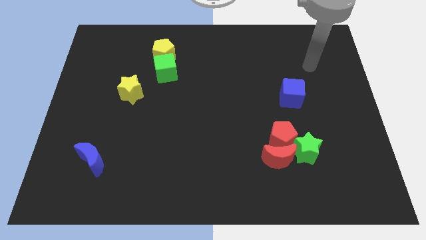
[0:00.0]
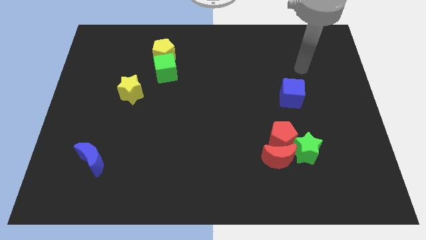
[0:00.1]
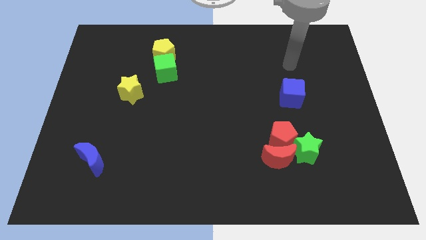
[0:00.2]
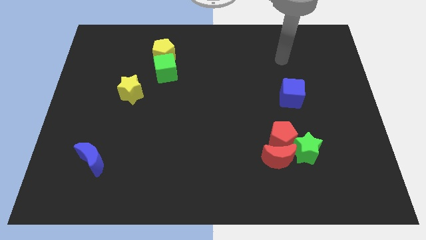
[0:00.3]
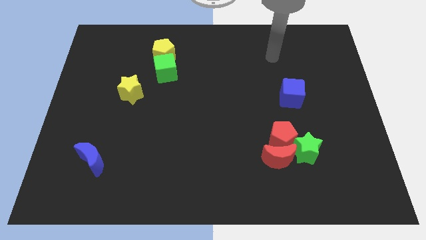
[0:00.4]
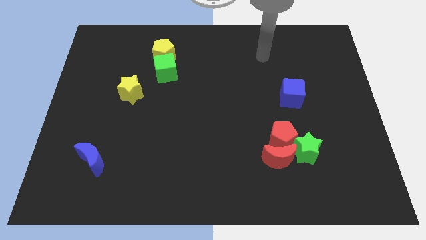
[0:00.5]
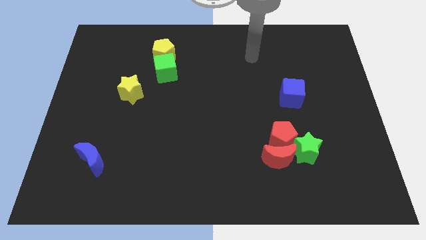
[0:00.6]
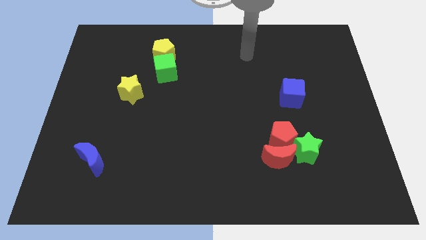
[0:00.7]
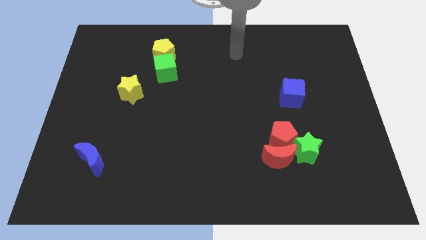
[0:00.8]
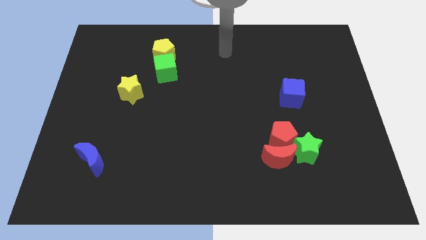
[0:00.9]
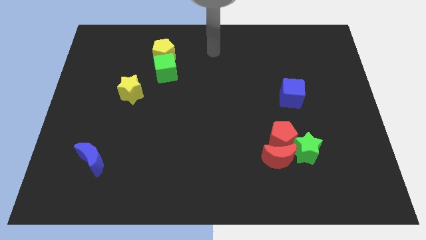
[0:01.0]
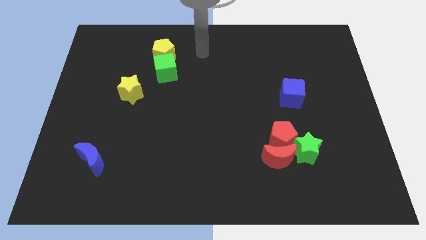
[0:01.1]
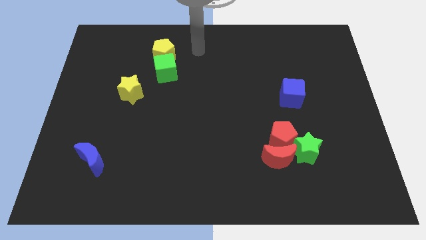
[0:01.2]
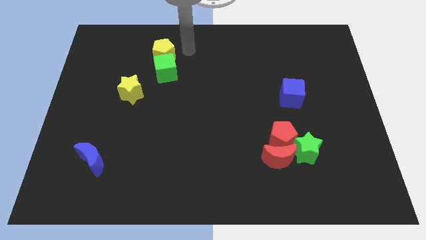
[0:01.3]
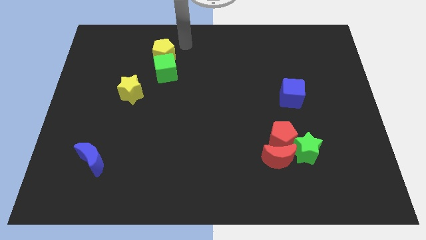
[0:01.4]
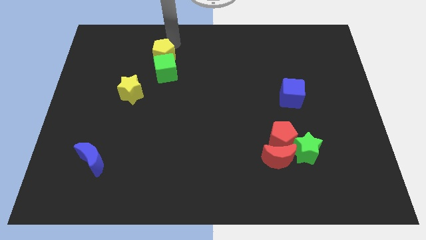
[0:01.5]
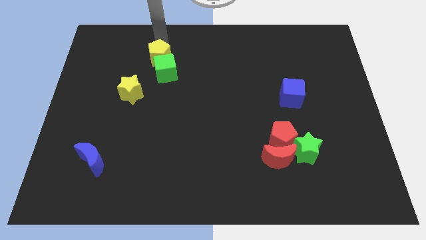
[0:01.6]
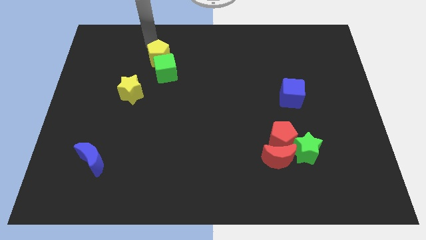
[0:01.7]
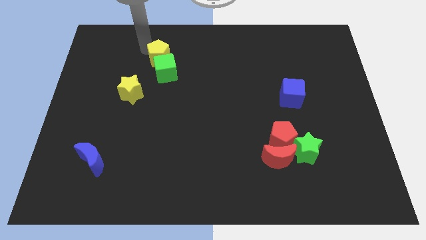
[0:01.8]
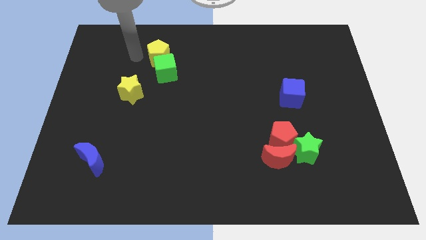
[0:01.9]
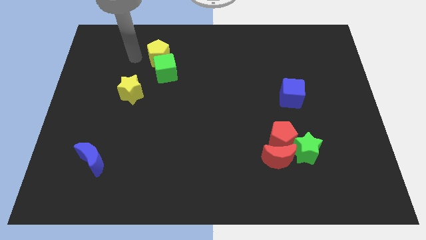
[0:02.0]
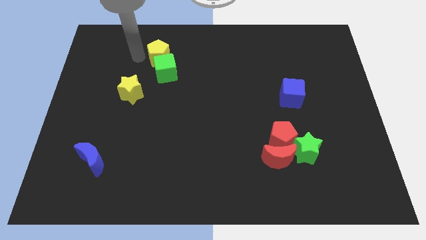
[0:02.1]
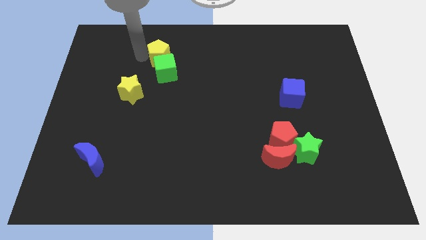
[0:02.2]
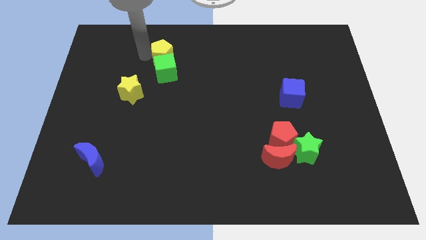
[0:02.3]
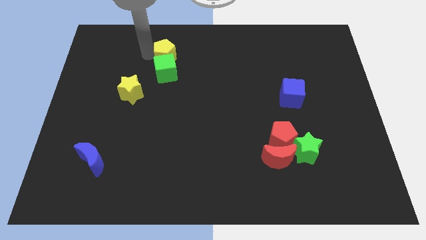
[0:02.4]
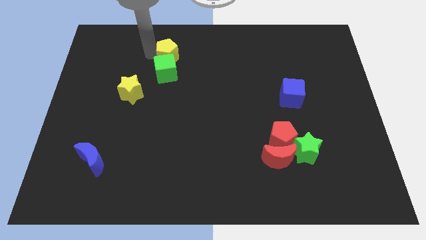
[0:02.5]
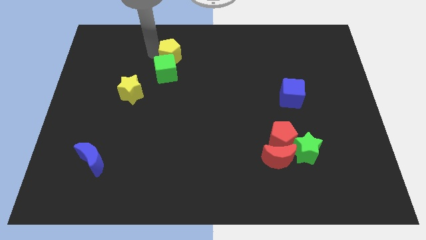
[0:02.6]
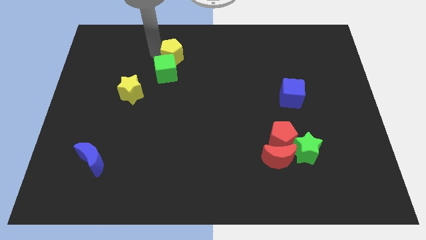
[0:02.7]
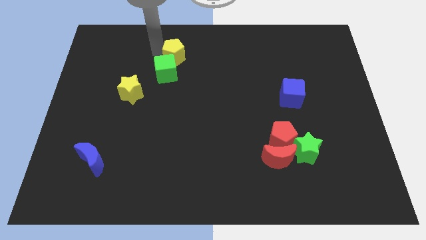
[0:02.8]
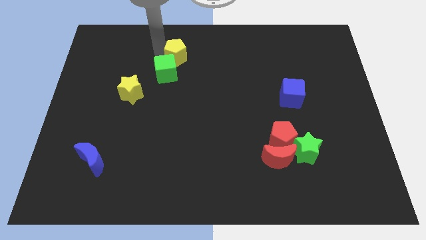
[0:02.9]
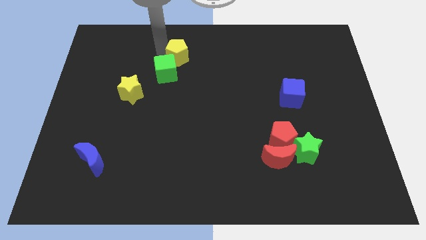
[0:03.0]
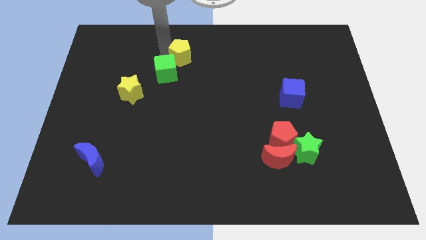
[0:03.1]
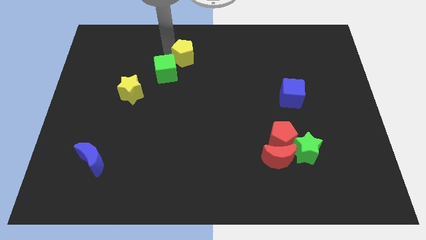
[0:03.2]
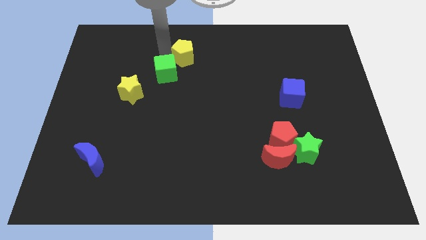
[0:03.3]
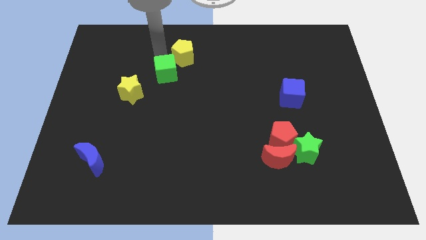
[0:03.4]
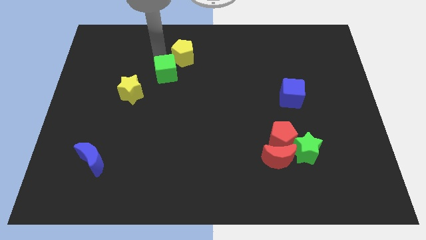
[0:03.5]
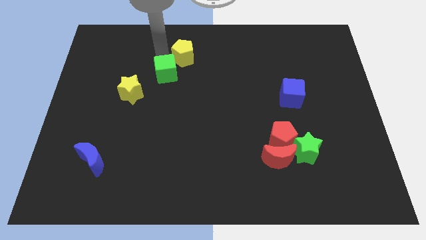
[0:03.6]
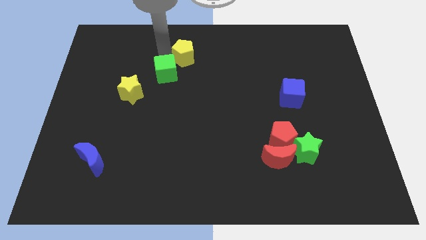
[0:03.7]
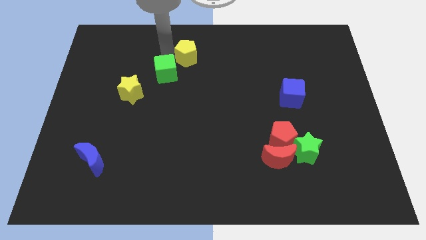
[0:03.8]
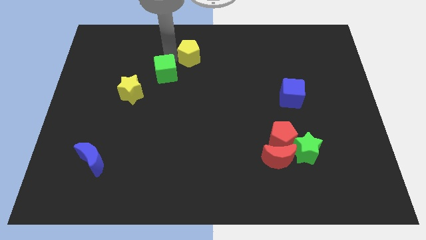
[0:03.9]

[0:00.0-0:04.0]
move the yellow pentagon right a little bit

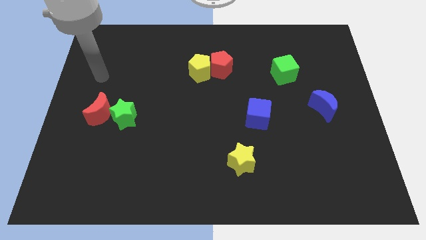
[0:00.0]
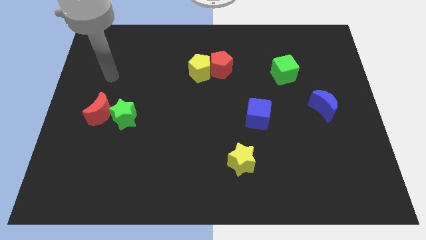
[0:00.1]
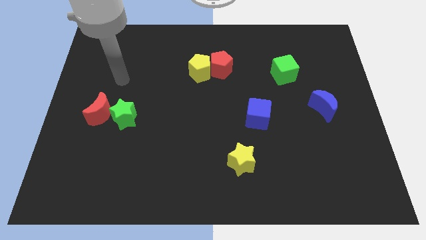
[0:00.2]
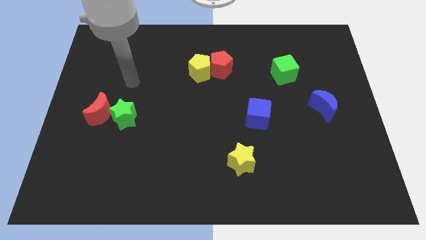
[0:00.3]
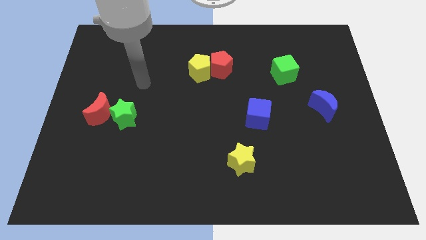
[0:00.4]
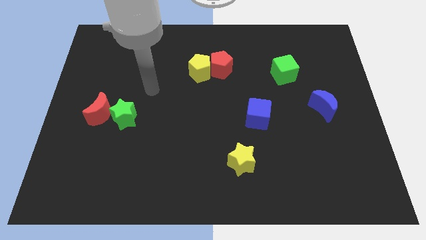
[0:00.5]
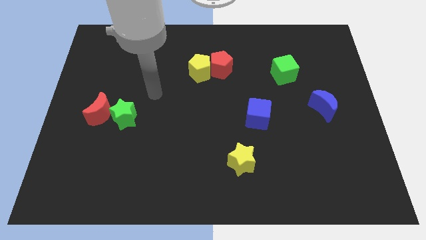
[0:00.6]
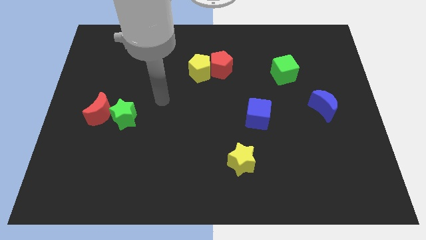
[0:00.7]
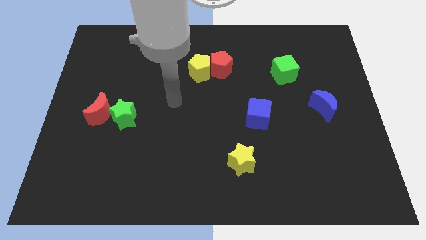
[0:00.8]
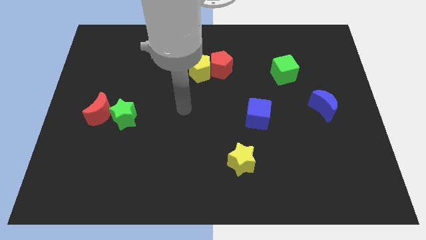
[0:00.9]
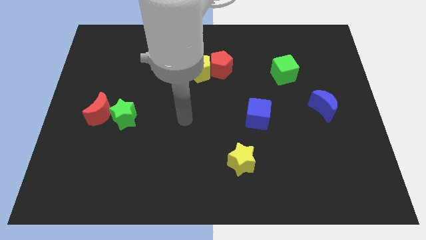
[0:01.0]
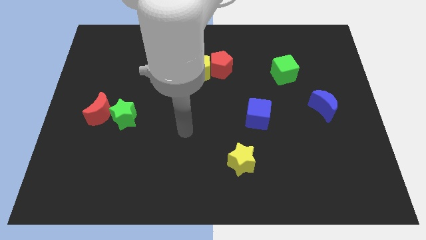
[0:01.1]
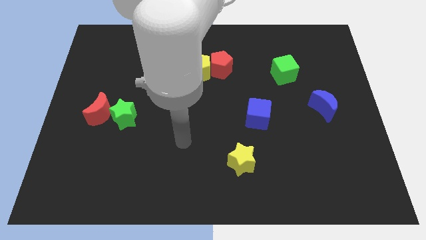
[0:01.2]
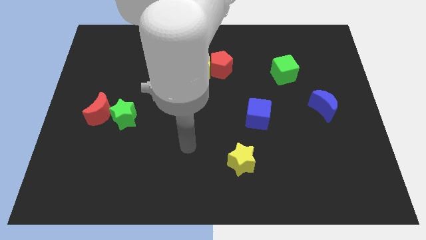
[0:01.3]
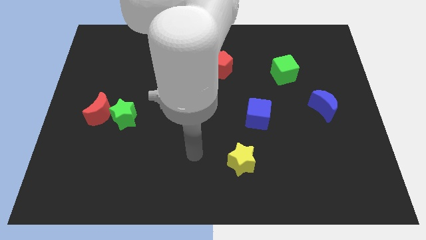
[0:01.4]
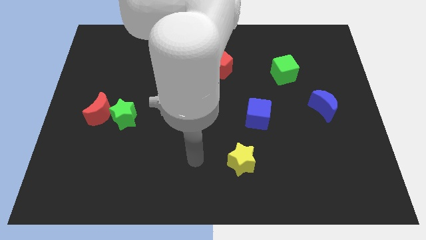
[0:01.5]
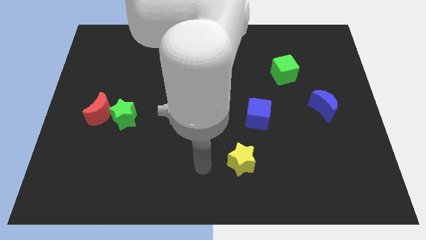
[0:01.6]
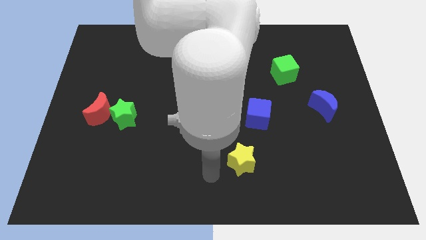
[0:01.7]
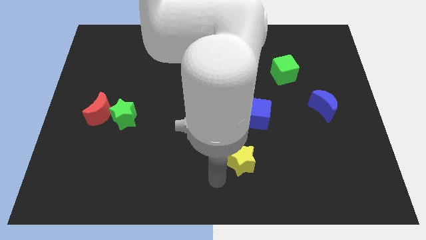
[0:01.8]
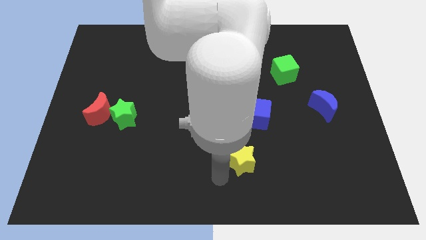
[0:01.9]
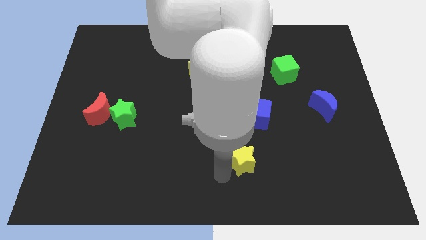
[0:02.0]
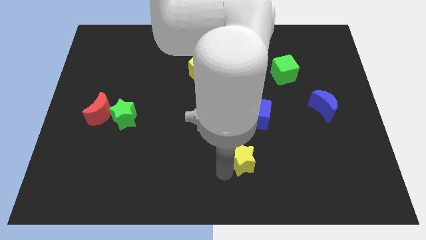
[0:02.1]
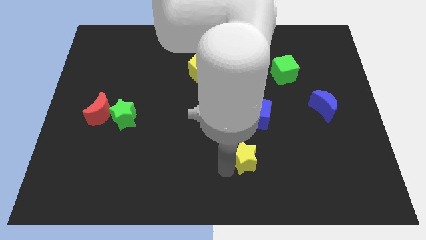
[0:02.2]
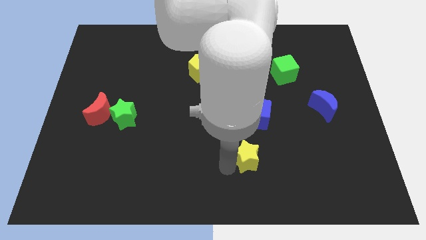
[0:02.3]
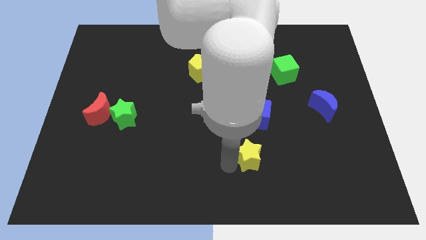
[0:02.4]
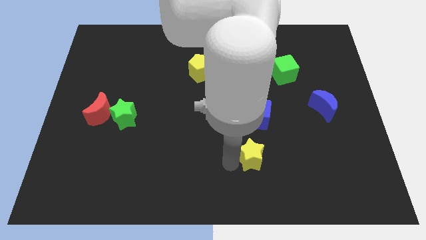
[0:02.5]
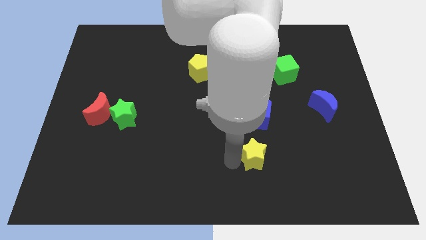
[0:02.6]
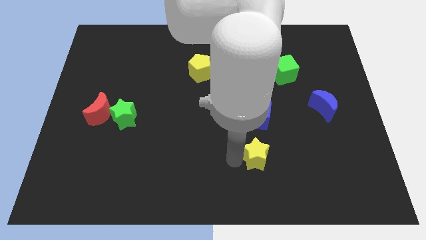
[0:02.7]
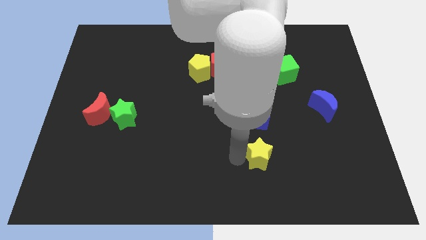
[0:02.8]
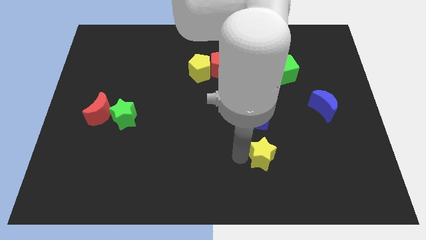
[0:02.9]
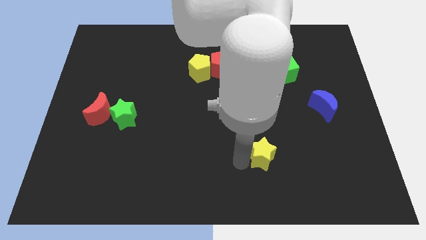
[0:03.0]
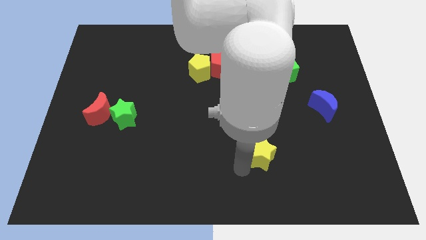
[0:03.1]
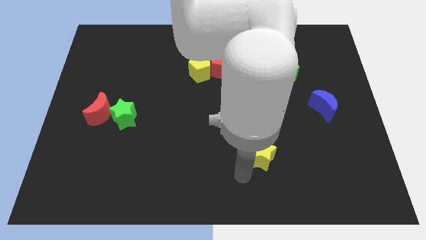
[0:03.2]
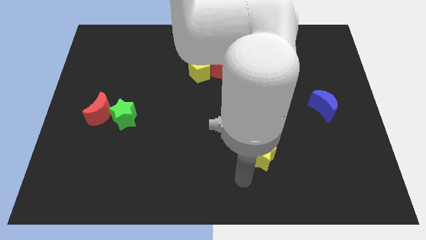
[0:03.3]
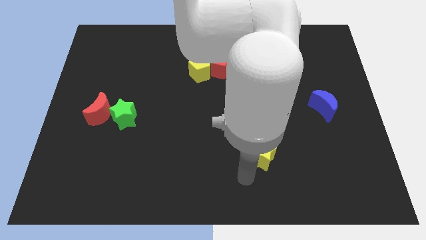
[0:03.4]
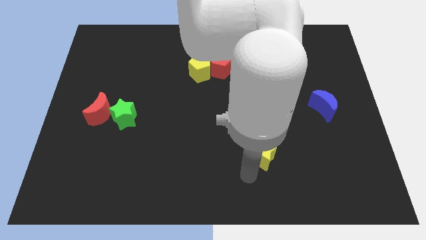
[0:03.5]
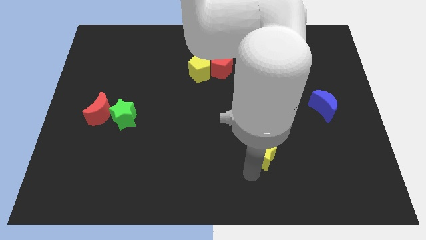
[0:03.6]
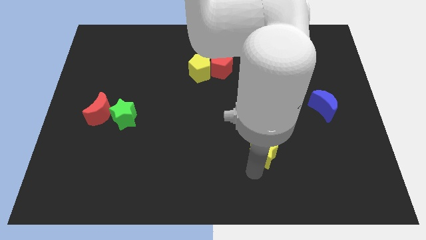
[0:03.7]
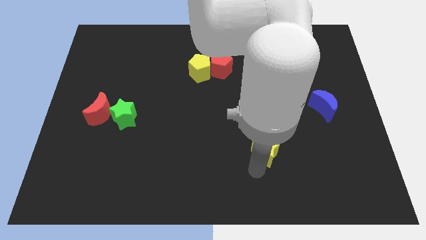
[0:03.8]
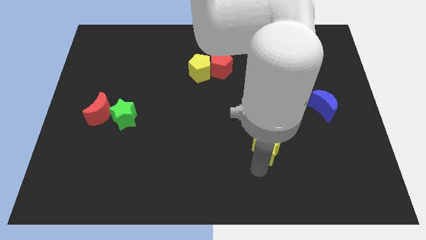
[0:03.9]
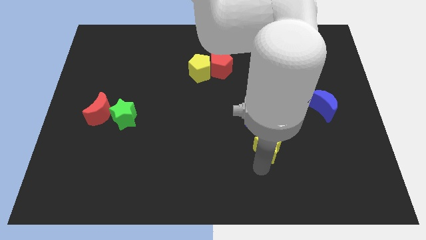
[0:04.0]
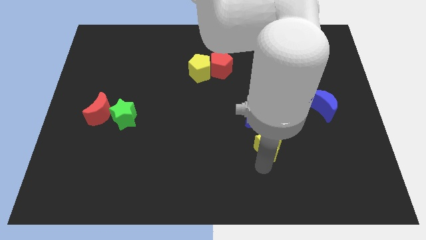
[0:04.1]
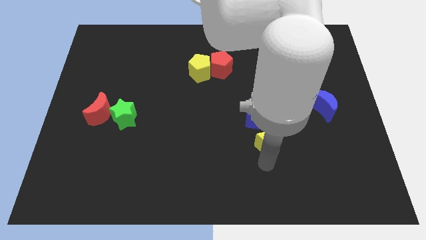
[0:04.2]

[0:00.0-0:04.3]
slightly move the yellow star up and then right
